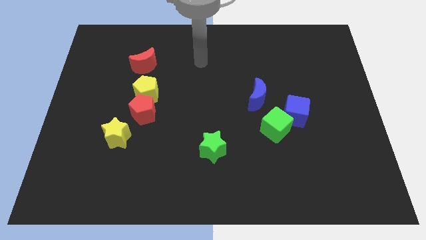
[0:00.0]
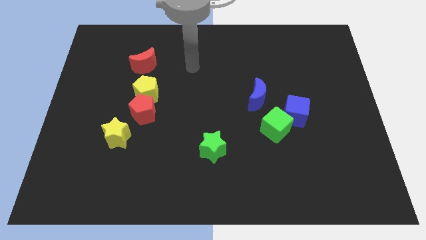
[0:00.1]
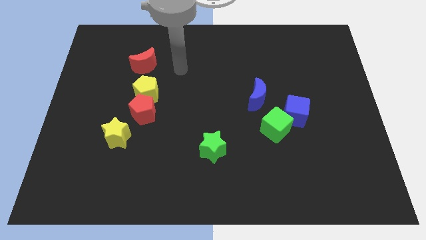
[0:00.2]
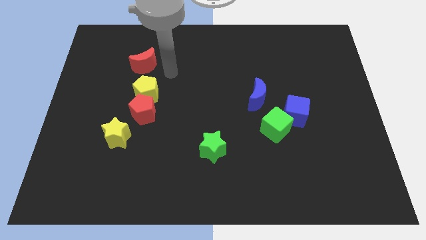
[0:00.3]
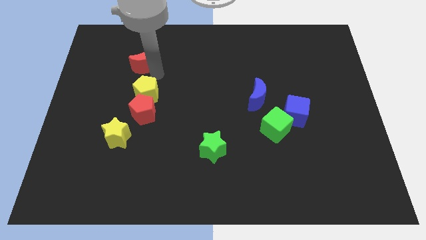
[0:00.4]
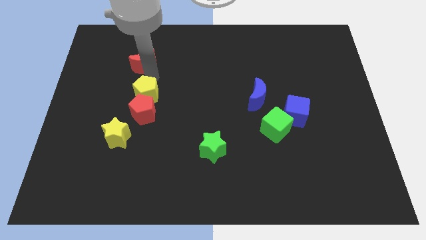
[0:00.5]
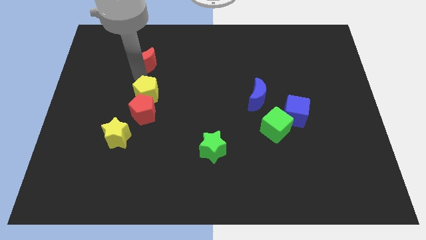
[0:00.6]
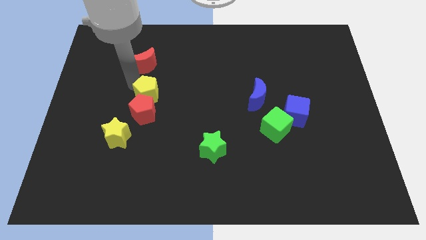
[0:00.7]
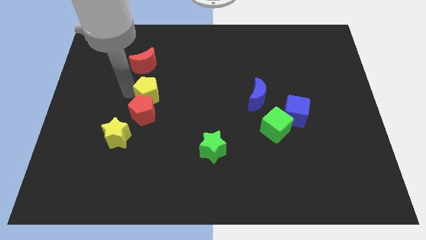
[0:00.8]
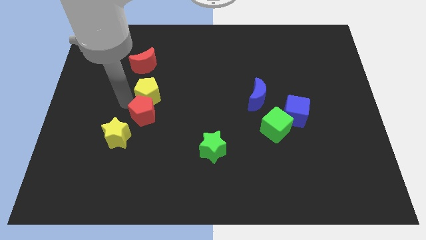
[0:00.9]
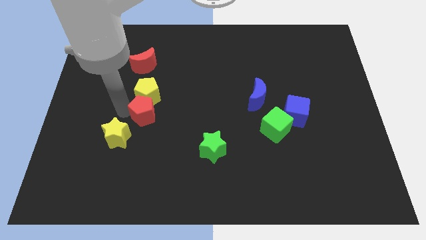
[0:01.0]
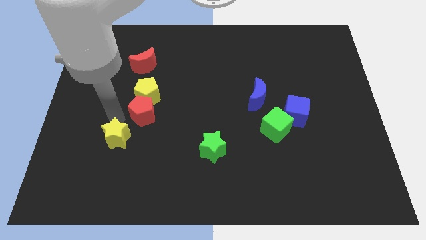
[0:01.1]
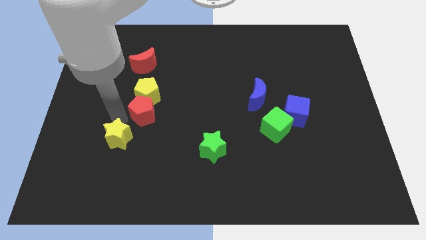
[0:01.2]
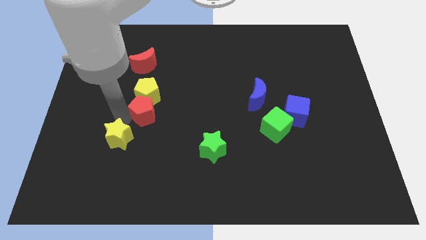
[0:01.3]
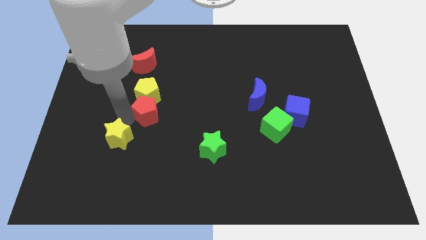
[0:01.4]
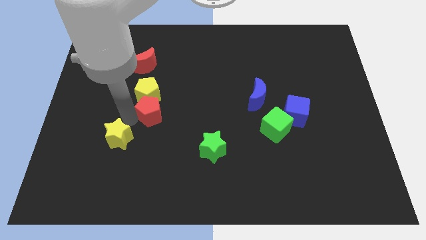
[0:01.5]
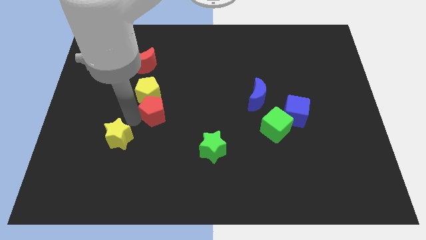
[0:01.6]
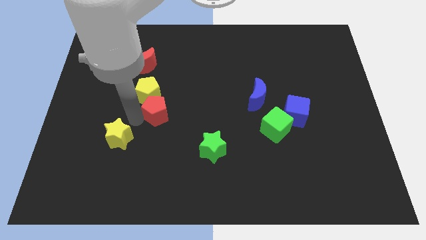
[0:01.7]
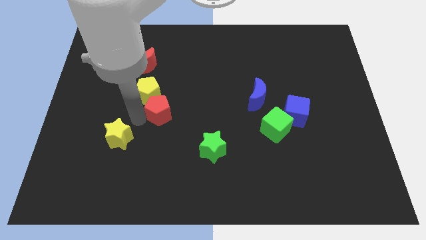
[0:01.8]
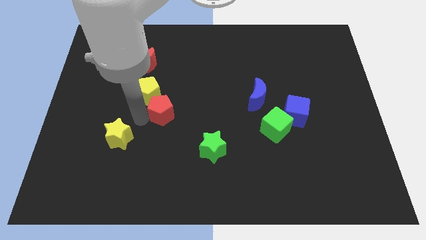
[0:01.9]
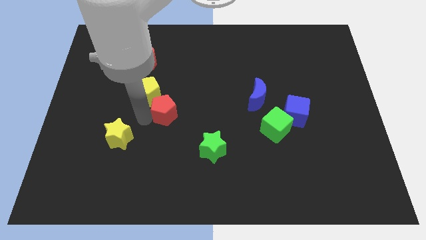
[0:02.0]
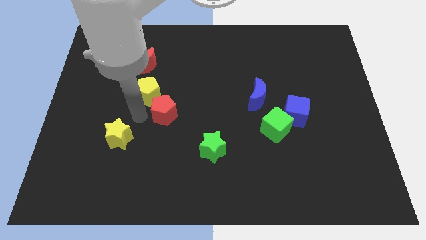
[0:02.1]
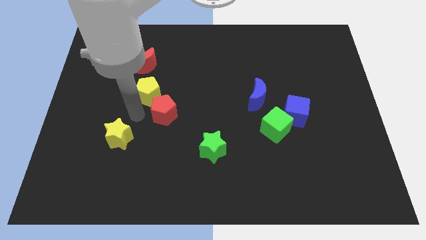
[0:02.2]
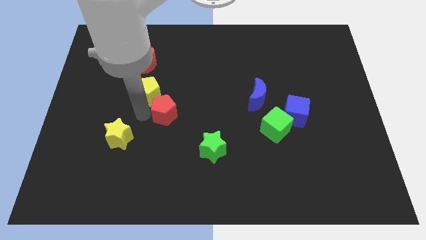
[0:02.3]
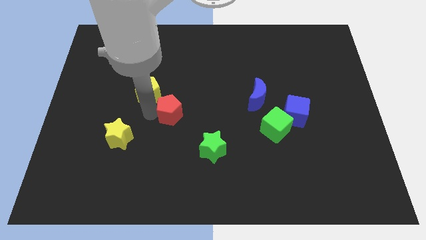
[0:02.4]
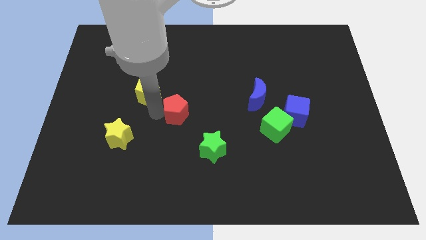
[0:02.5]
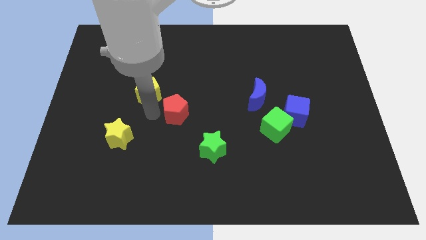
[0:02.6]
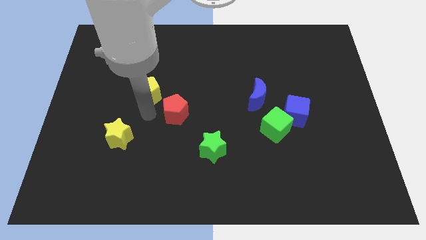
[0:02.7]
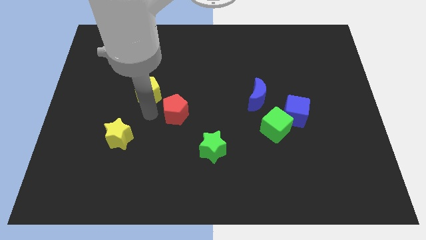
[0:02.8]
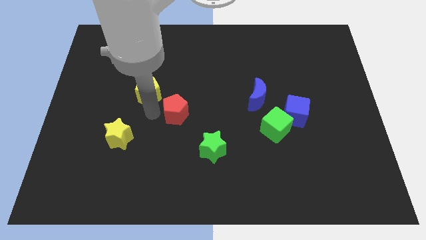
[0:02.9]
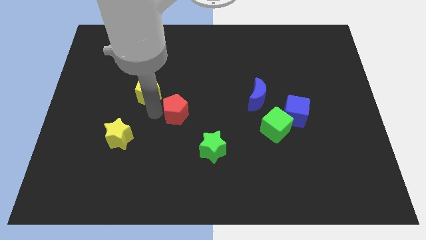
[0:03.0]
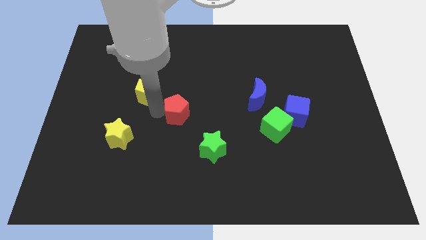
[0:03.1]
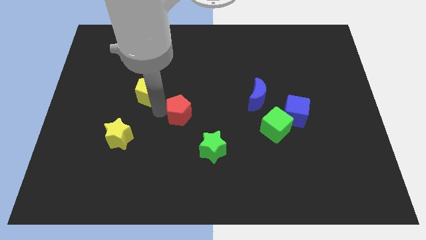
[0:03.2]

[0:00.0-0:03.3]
move the red pentagon away from the yellow pentagon and yellow star

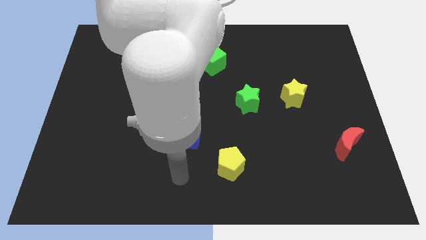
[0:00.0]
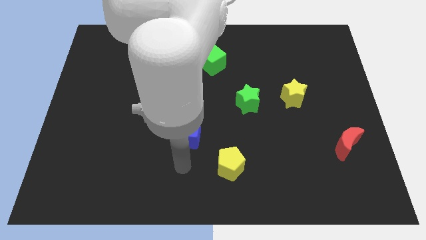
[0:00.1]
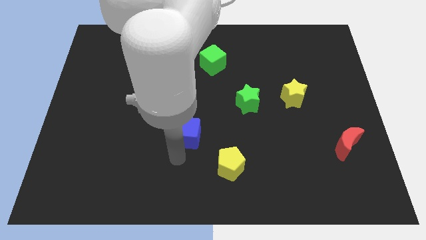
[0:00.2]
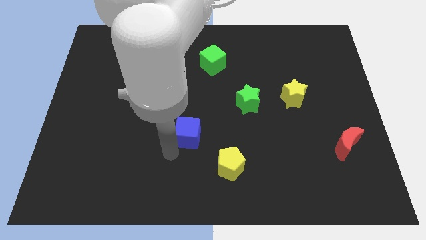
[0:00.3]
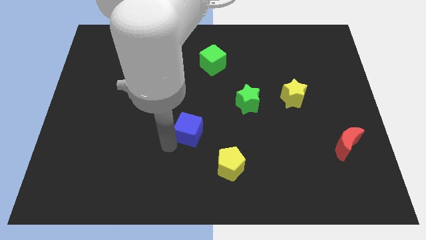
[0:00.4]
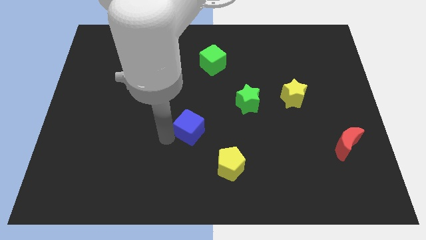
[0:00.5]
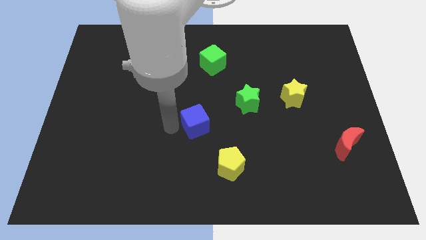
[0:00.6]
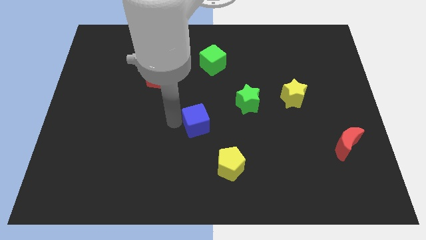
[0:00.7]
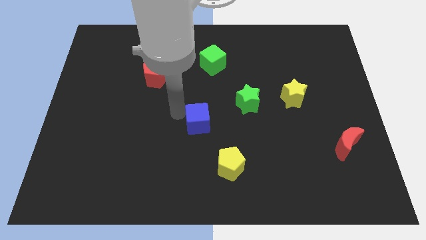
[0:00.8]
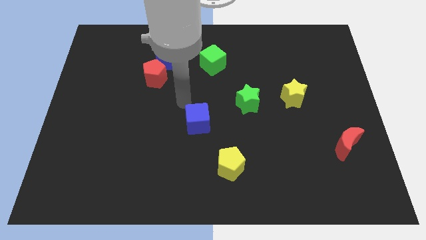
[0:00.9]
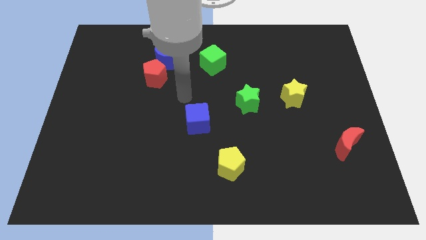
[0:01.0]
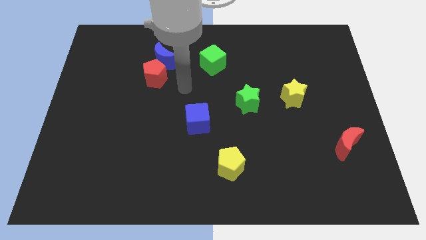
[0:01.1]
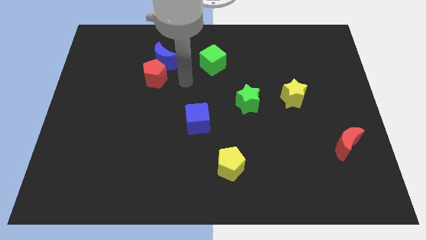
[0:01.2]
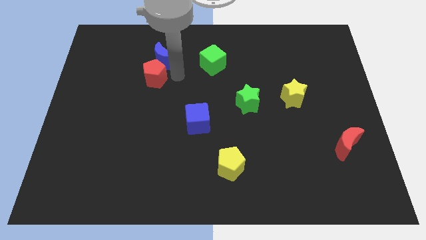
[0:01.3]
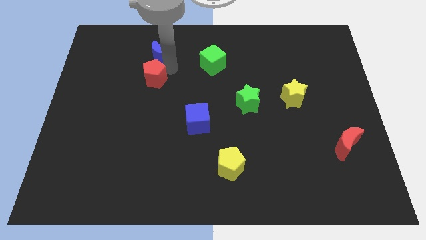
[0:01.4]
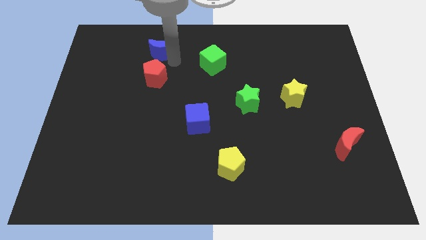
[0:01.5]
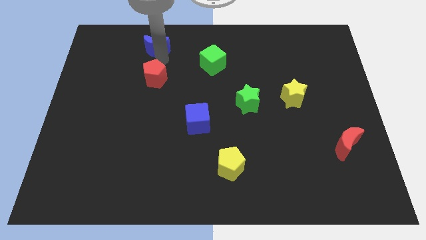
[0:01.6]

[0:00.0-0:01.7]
separate the red pentagon from the blue moon

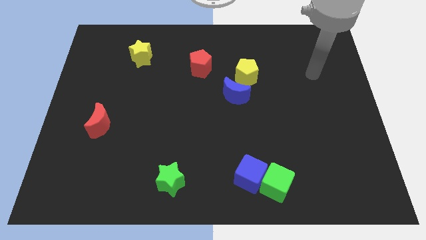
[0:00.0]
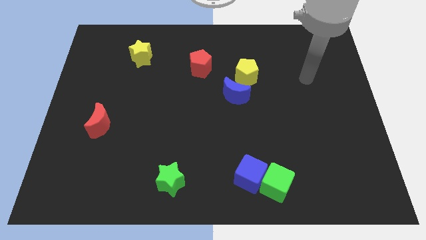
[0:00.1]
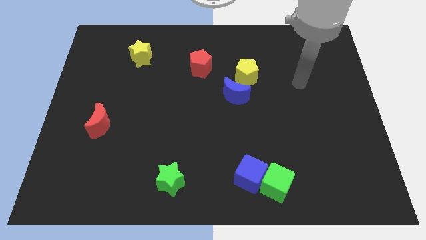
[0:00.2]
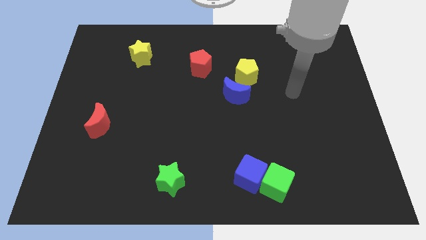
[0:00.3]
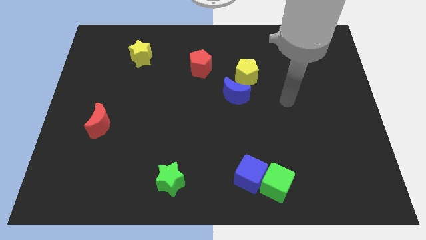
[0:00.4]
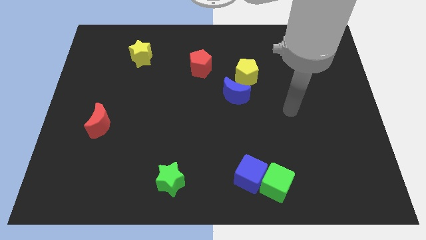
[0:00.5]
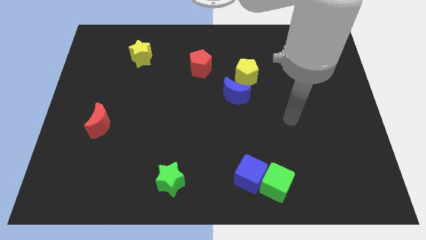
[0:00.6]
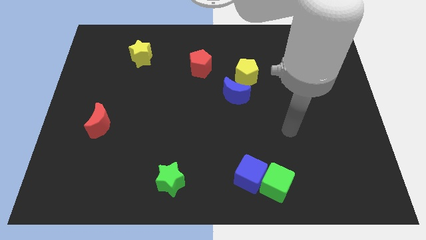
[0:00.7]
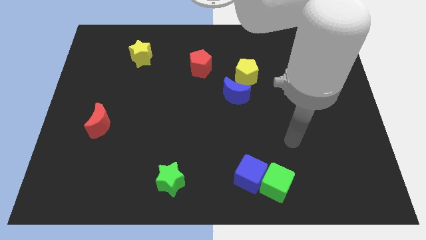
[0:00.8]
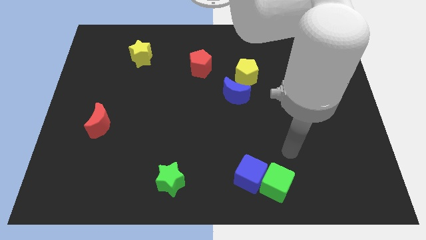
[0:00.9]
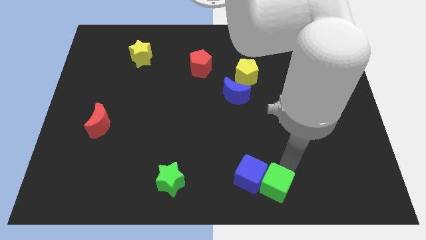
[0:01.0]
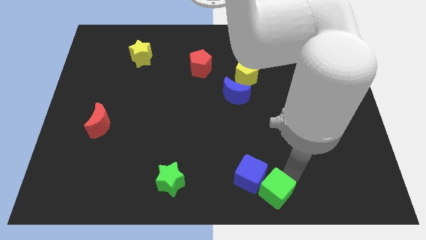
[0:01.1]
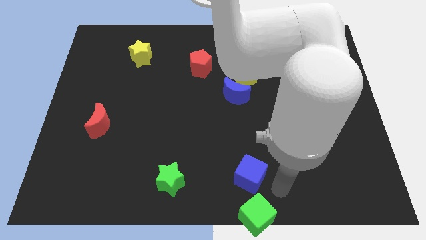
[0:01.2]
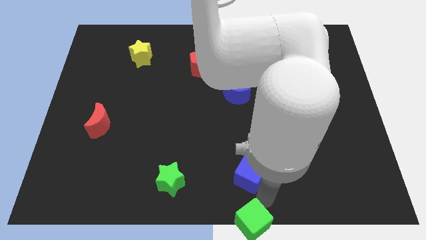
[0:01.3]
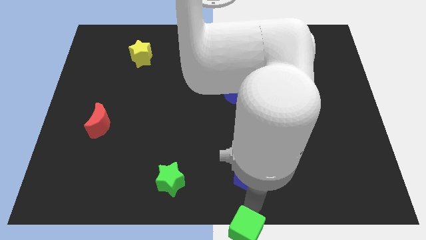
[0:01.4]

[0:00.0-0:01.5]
separate the blue cube from the green cube

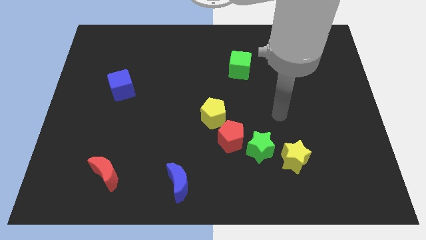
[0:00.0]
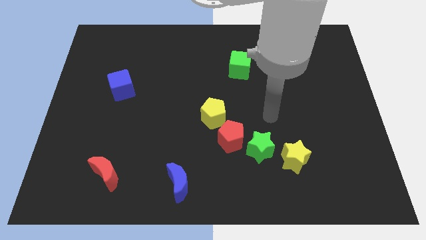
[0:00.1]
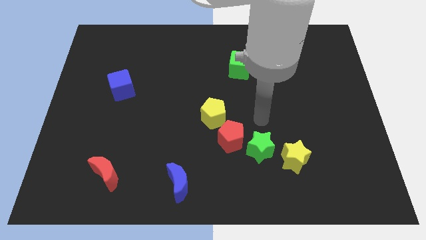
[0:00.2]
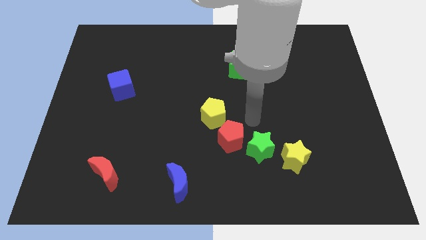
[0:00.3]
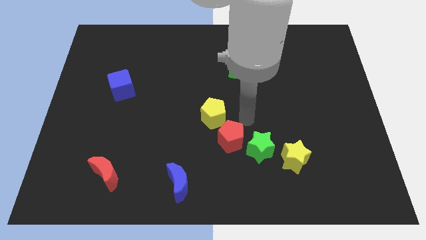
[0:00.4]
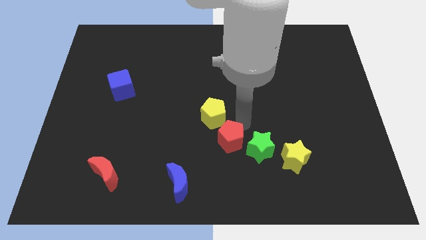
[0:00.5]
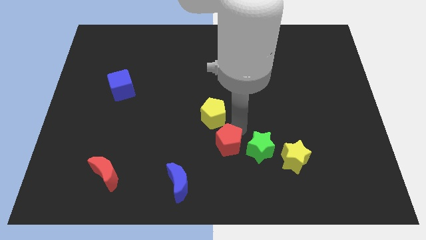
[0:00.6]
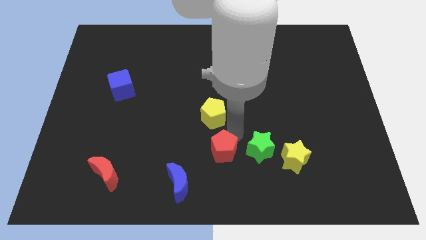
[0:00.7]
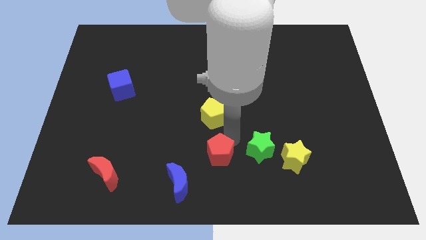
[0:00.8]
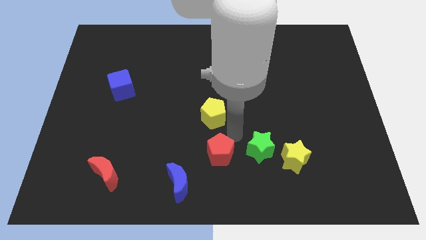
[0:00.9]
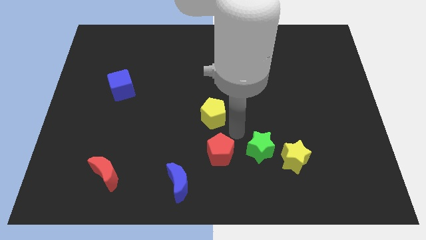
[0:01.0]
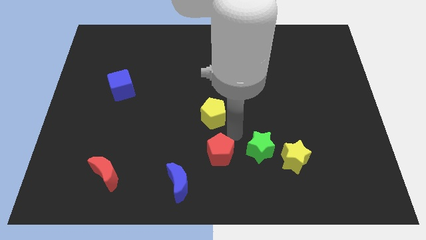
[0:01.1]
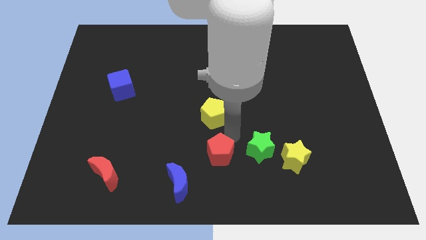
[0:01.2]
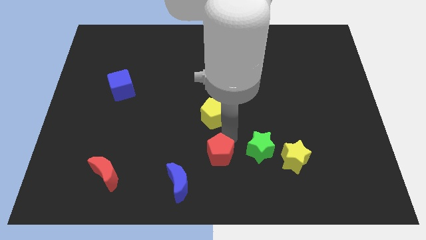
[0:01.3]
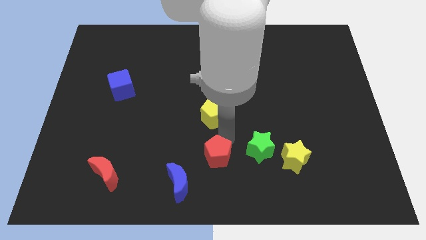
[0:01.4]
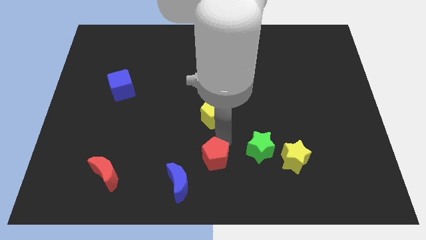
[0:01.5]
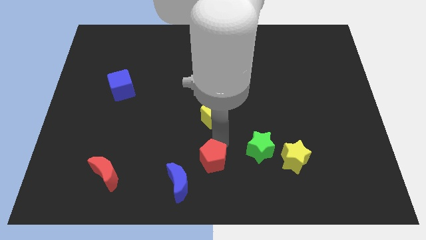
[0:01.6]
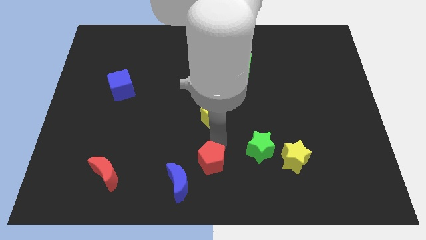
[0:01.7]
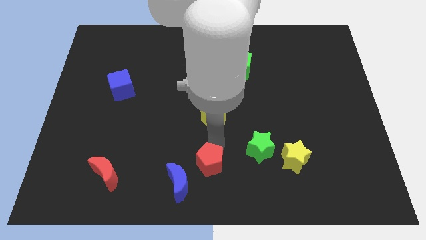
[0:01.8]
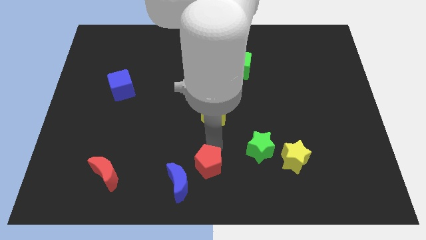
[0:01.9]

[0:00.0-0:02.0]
move the red pentagon away from the green star and yellow pentagon

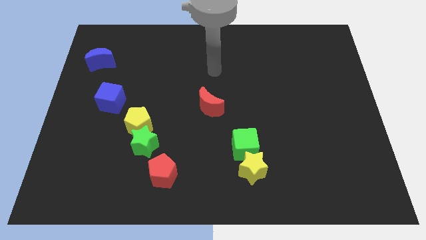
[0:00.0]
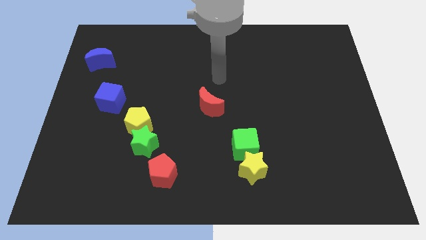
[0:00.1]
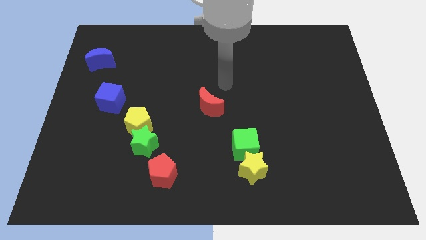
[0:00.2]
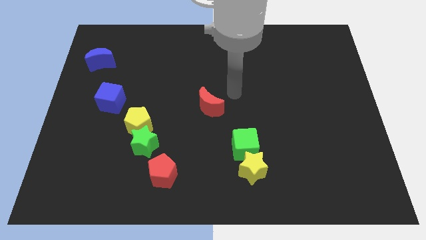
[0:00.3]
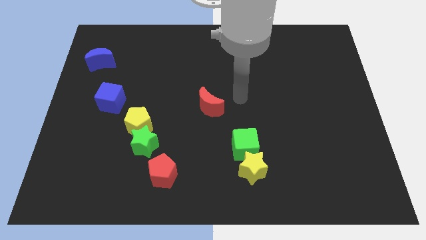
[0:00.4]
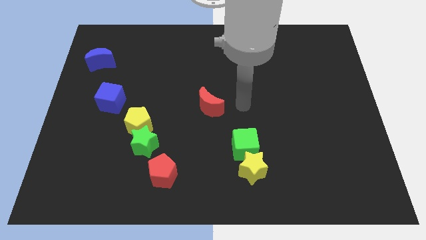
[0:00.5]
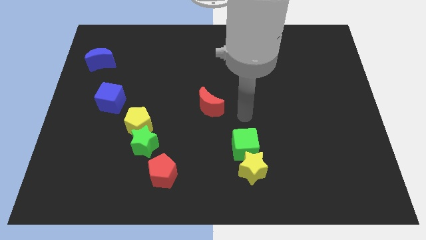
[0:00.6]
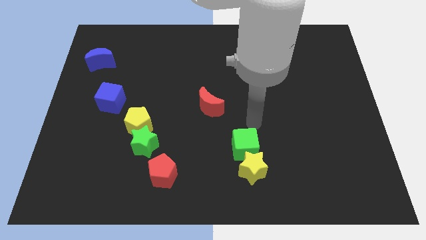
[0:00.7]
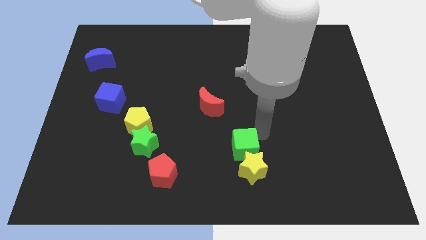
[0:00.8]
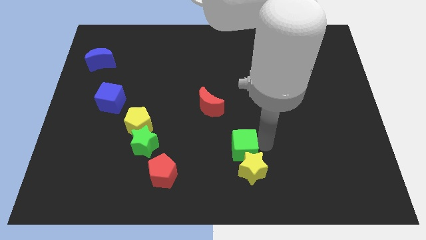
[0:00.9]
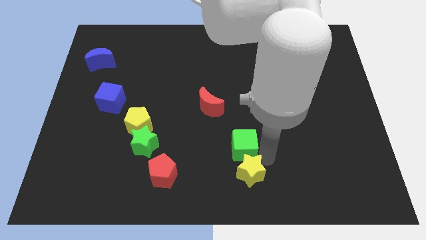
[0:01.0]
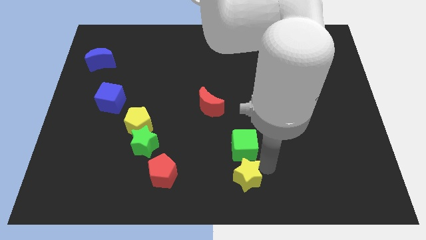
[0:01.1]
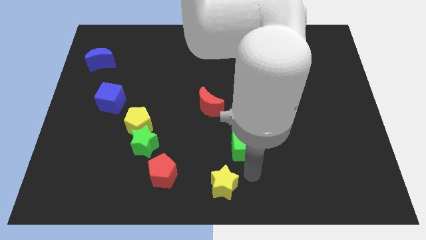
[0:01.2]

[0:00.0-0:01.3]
move the green cube away from the yellow star
